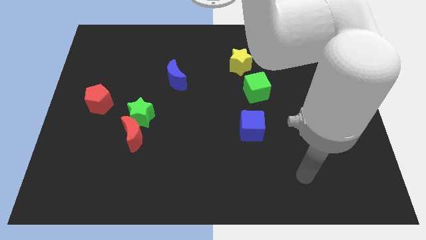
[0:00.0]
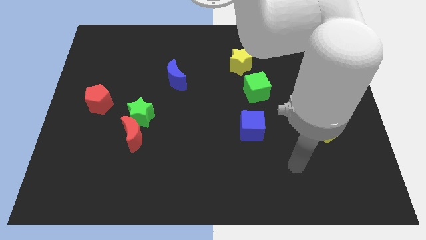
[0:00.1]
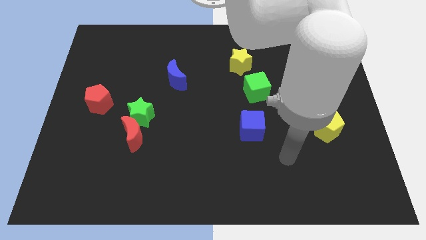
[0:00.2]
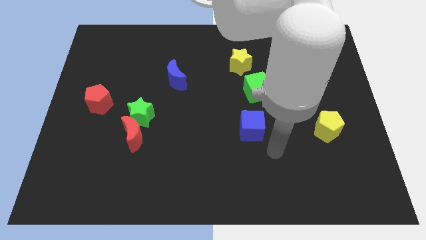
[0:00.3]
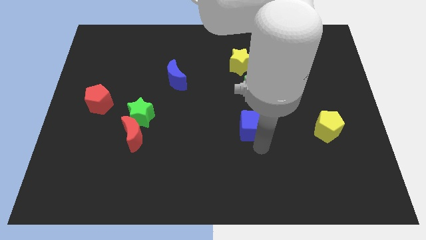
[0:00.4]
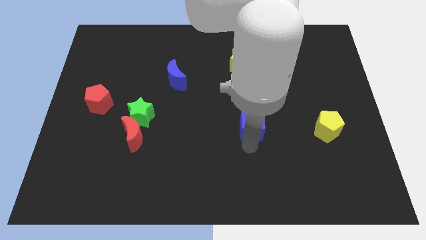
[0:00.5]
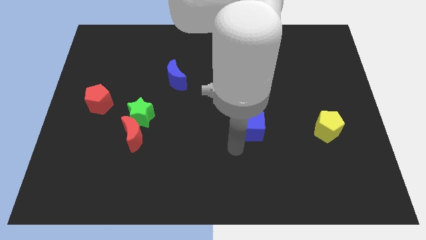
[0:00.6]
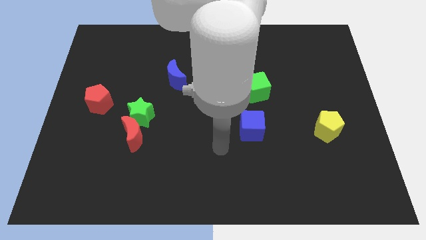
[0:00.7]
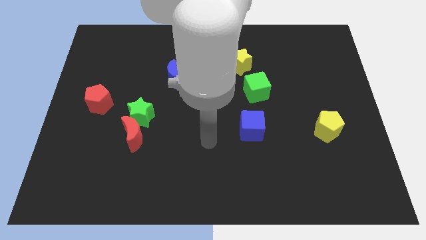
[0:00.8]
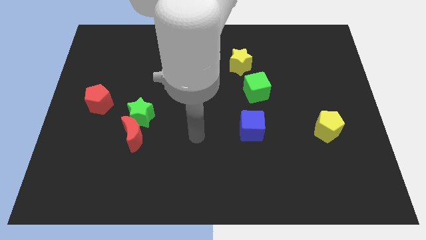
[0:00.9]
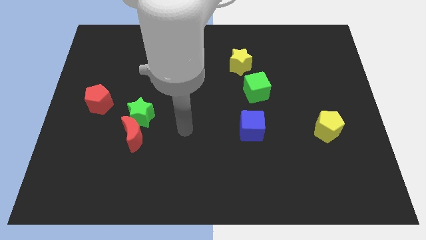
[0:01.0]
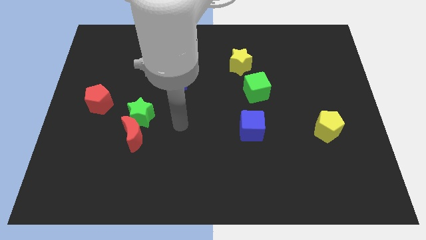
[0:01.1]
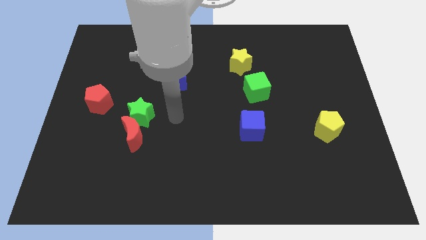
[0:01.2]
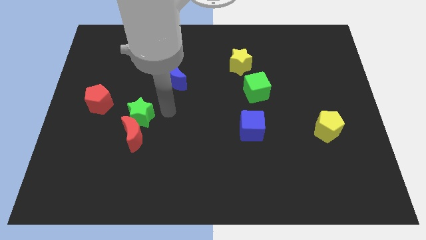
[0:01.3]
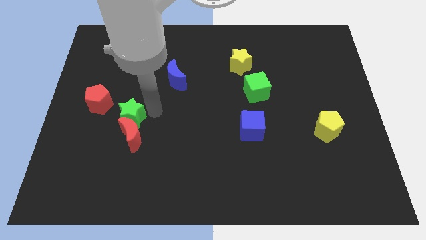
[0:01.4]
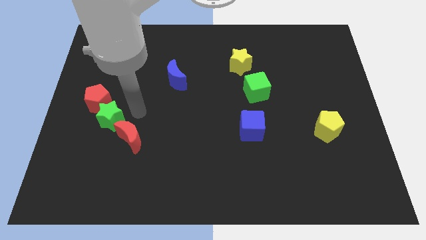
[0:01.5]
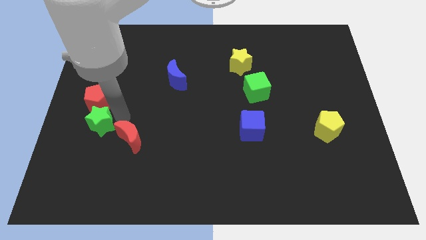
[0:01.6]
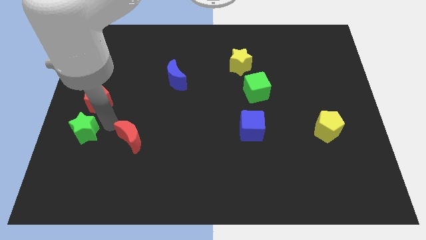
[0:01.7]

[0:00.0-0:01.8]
pull the red moon apart from the green star

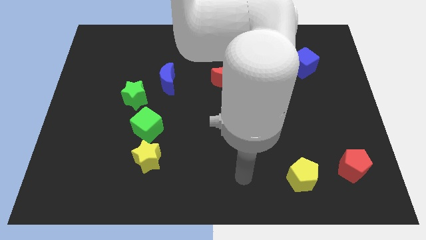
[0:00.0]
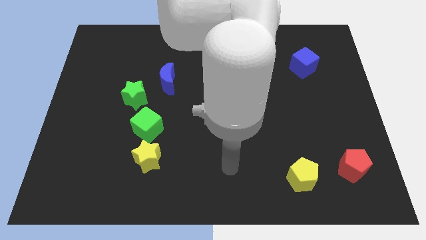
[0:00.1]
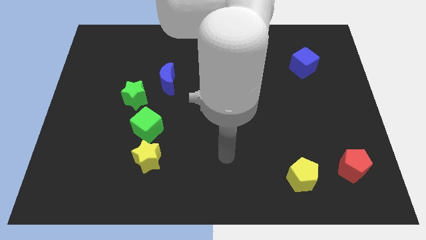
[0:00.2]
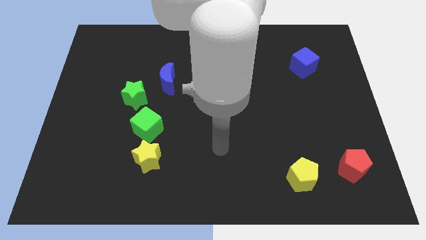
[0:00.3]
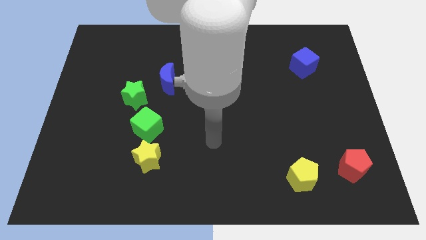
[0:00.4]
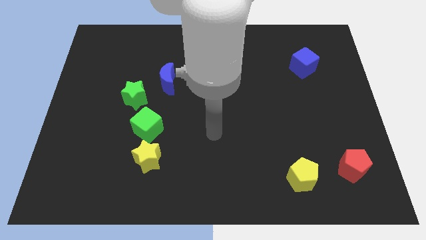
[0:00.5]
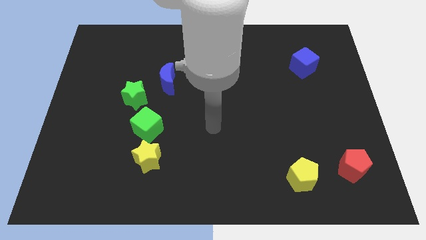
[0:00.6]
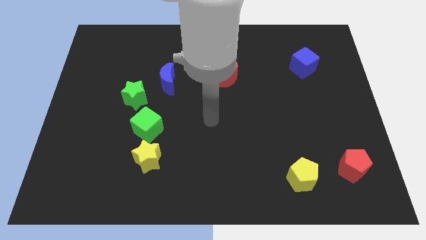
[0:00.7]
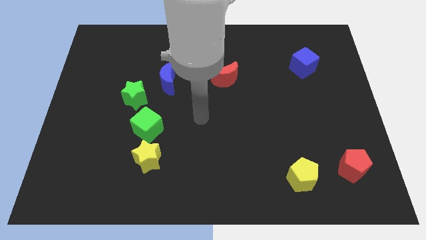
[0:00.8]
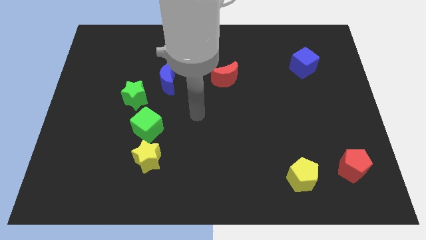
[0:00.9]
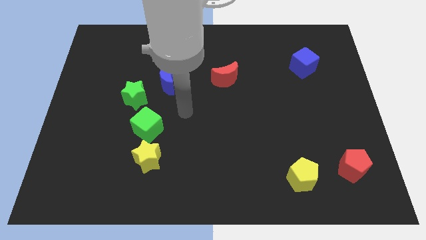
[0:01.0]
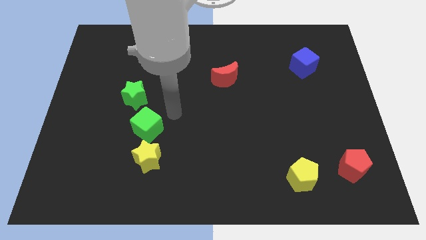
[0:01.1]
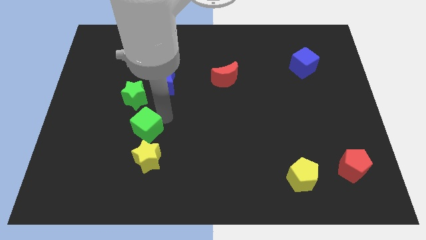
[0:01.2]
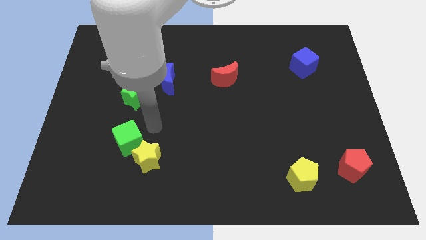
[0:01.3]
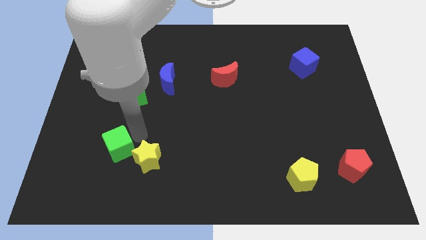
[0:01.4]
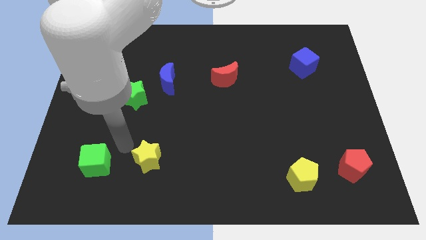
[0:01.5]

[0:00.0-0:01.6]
separate the yellow star from the green cube

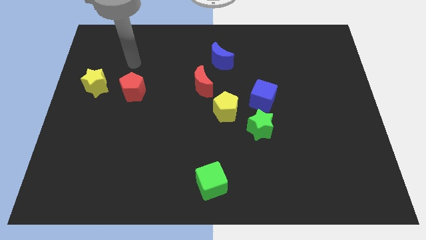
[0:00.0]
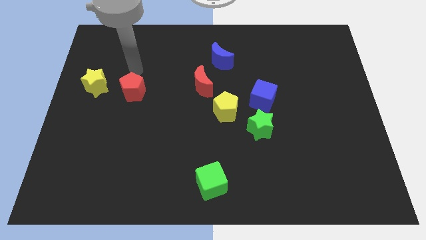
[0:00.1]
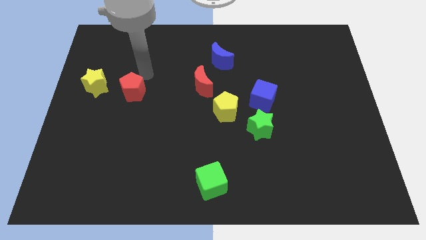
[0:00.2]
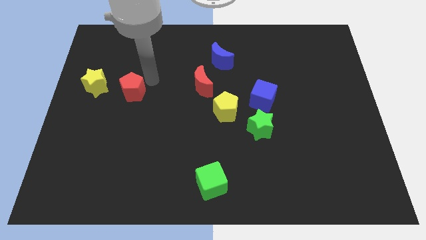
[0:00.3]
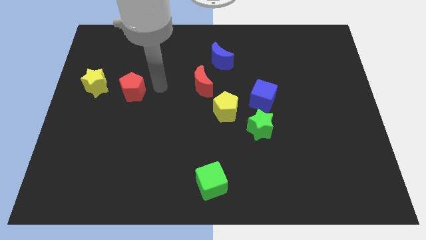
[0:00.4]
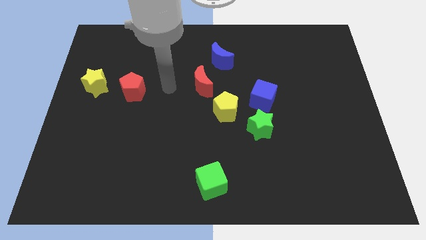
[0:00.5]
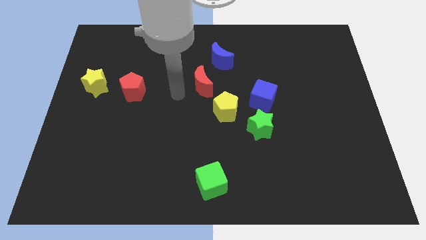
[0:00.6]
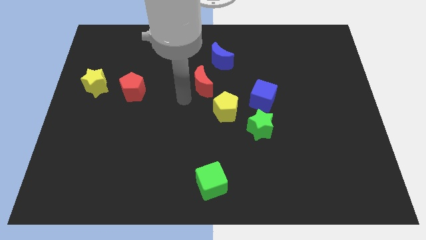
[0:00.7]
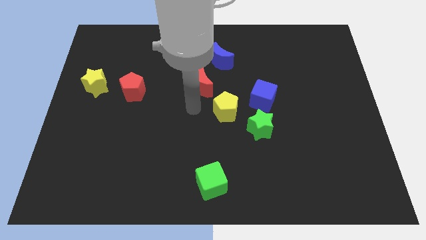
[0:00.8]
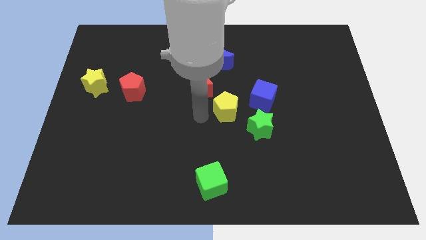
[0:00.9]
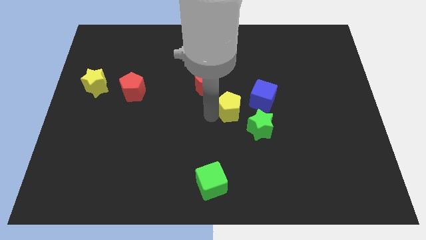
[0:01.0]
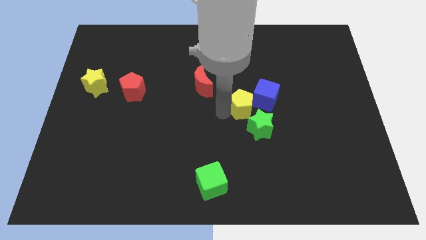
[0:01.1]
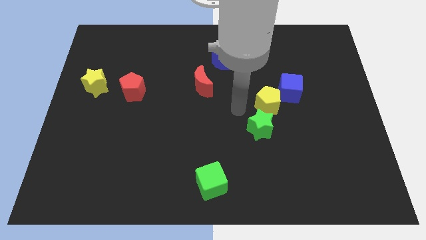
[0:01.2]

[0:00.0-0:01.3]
separate the green star from the blue cube and yellow pentagon

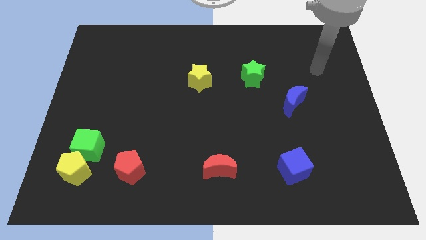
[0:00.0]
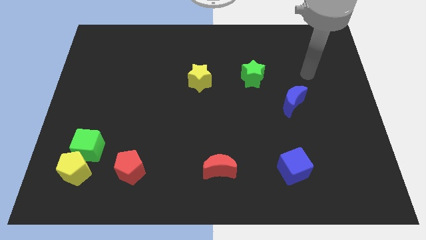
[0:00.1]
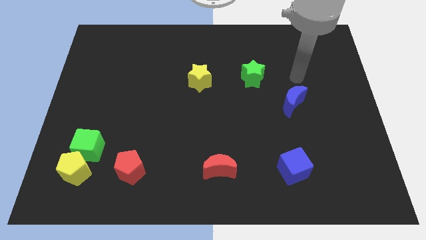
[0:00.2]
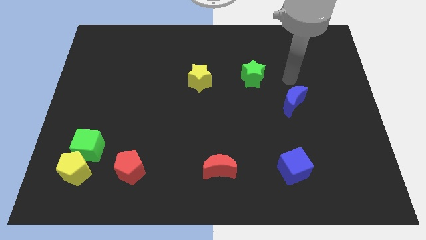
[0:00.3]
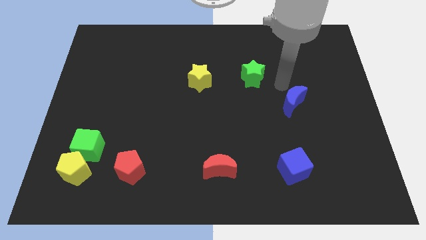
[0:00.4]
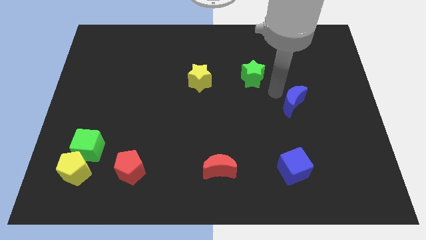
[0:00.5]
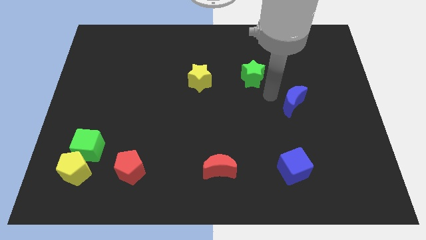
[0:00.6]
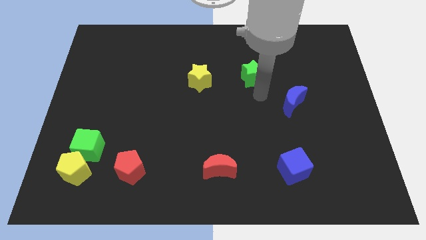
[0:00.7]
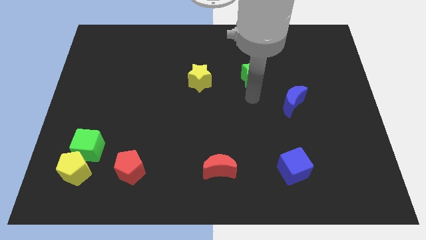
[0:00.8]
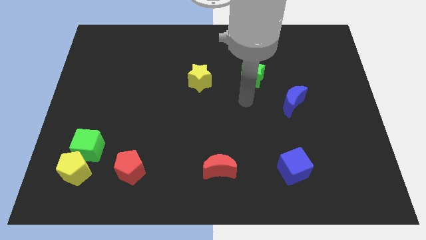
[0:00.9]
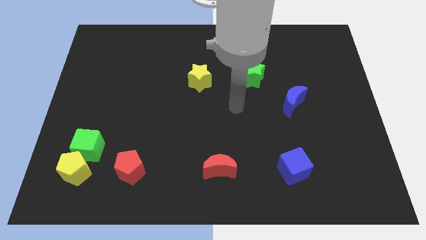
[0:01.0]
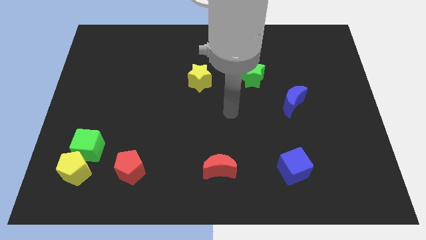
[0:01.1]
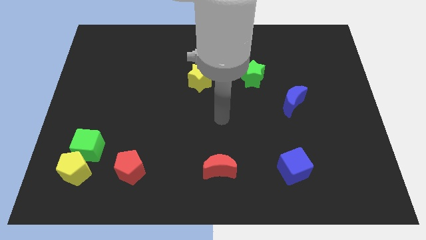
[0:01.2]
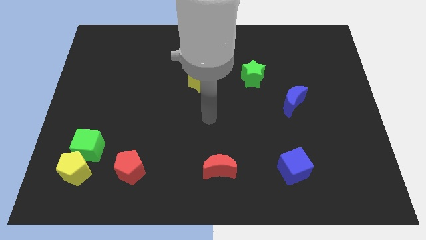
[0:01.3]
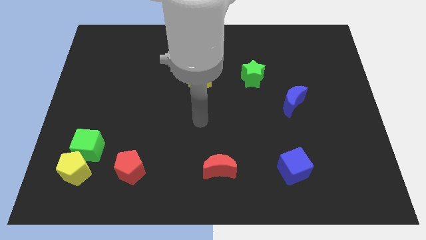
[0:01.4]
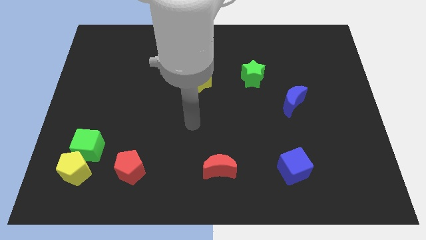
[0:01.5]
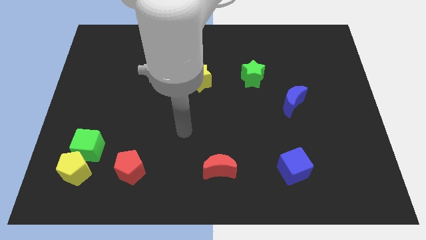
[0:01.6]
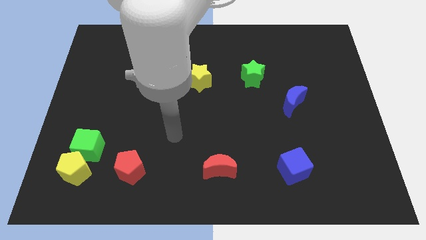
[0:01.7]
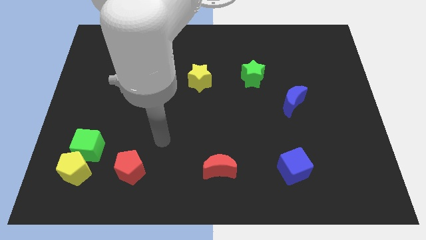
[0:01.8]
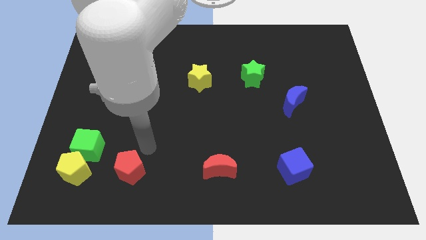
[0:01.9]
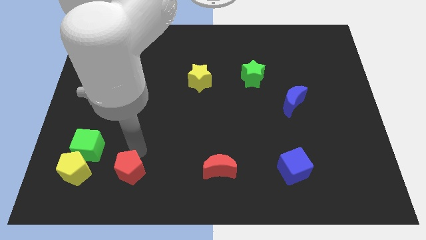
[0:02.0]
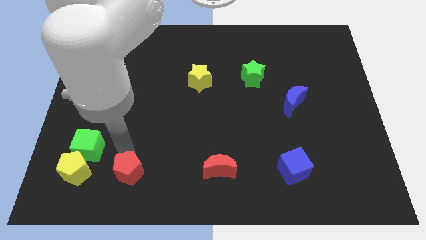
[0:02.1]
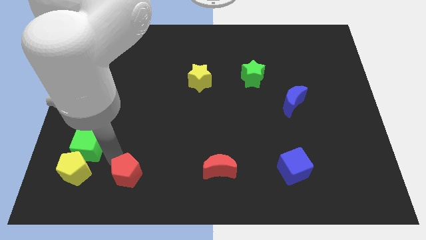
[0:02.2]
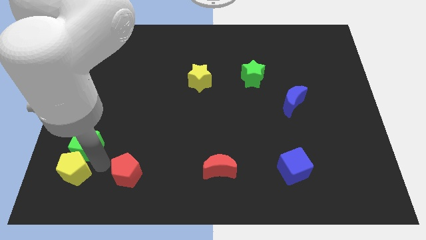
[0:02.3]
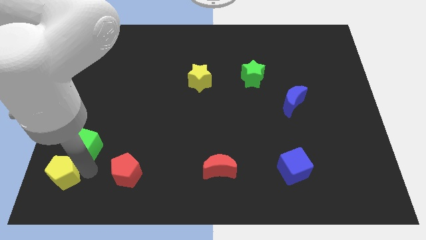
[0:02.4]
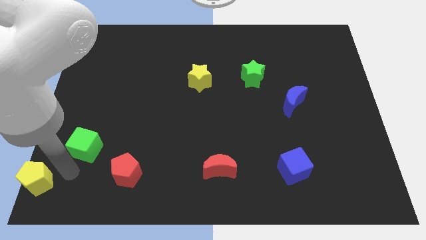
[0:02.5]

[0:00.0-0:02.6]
move the green cube away from the yellow pentagon

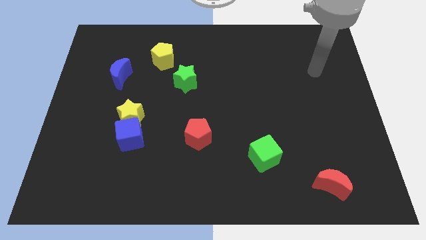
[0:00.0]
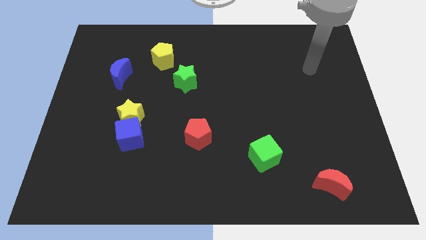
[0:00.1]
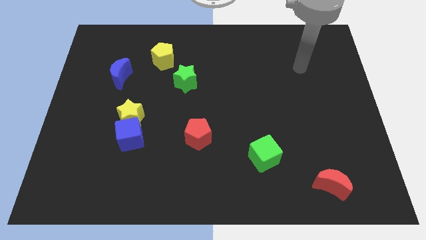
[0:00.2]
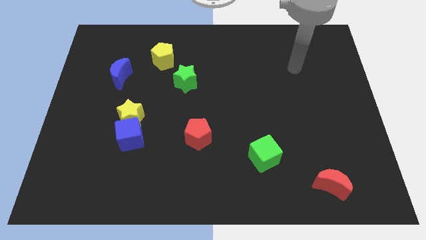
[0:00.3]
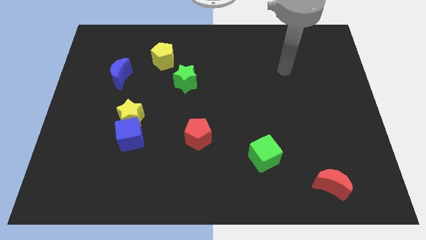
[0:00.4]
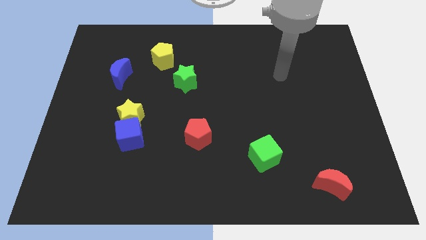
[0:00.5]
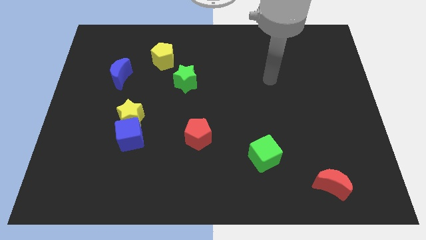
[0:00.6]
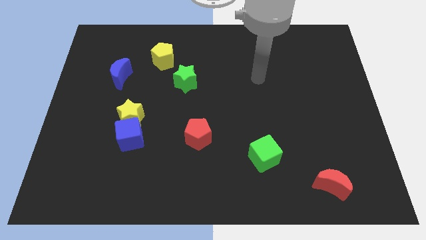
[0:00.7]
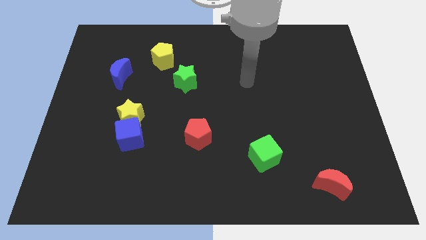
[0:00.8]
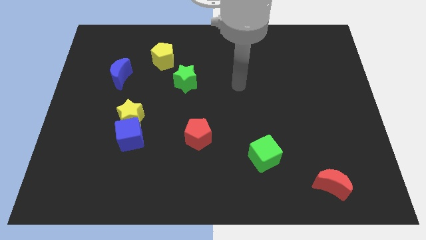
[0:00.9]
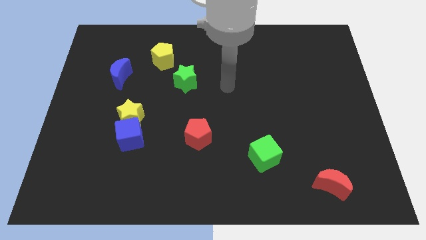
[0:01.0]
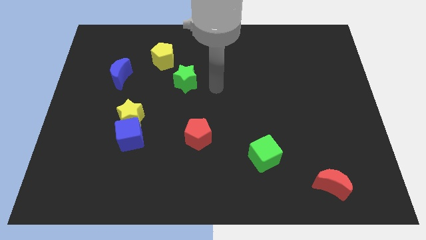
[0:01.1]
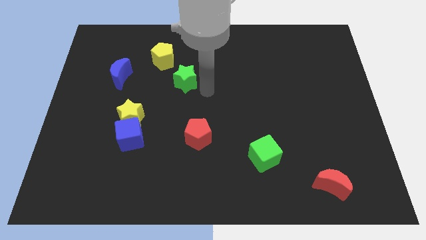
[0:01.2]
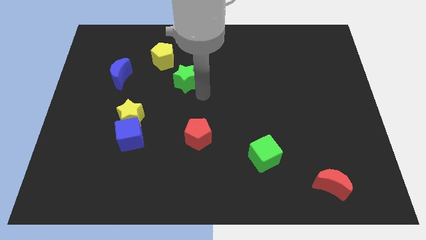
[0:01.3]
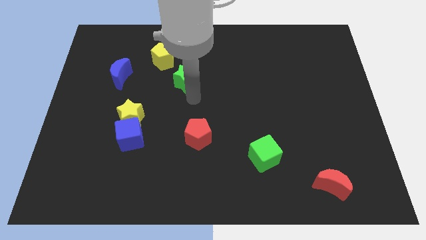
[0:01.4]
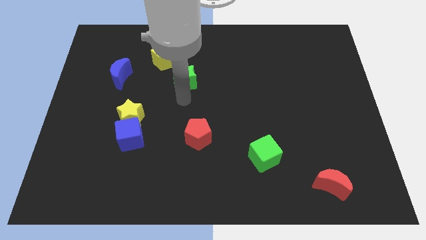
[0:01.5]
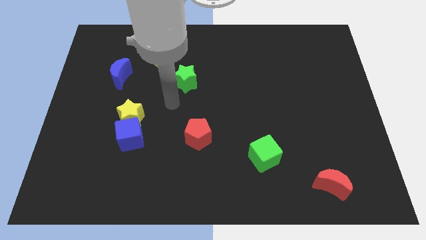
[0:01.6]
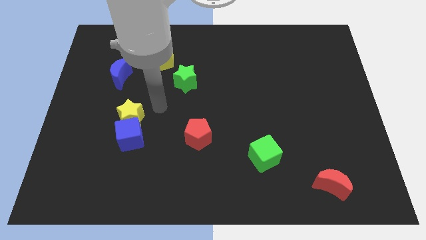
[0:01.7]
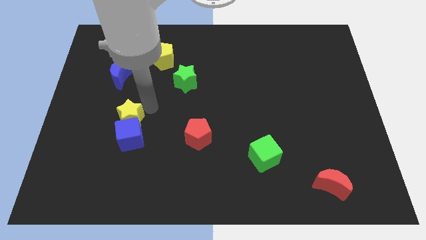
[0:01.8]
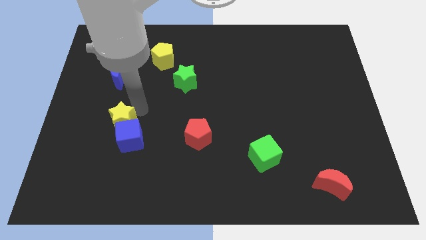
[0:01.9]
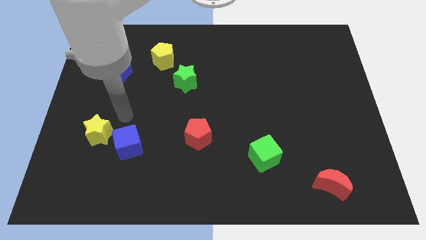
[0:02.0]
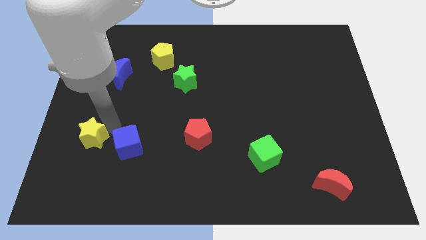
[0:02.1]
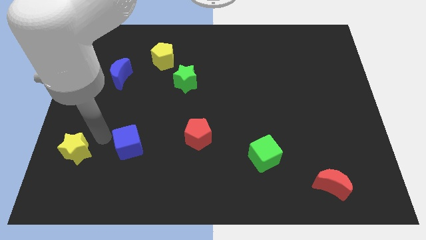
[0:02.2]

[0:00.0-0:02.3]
pull the blue cube apart from the yellow star
